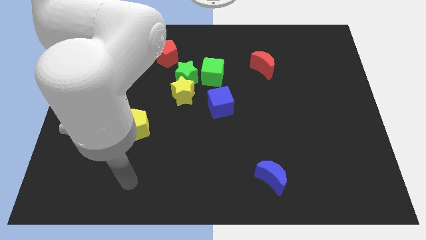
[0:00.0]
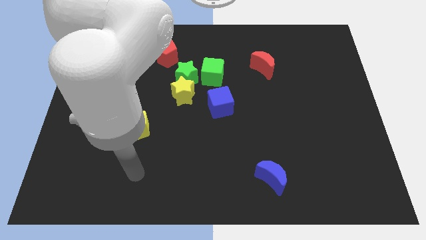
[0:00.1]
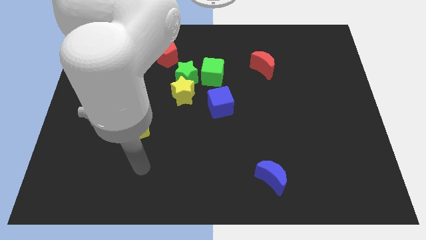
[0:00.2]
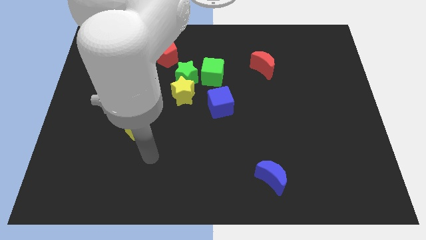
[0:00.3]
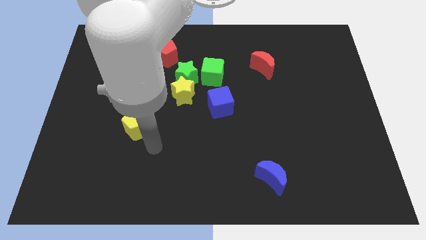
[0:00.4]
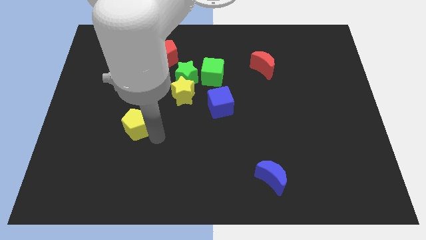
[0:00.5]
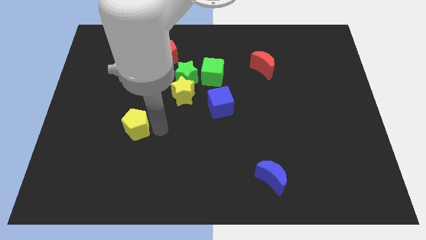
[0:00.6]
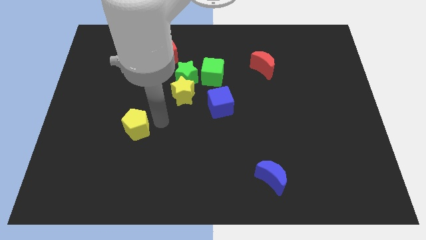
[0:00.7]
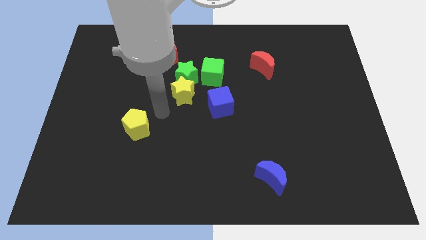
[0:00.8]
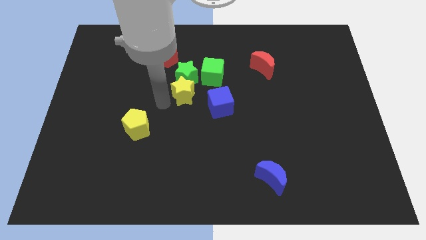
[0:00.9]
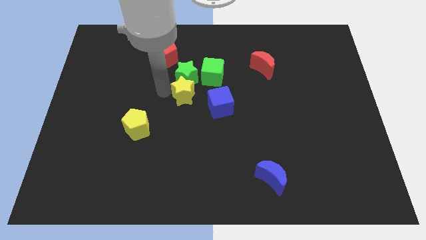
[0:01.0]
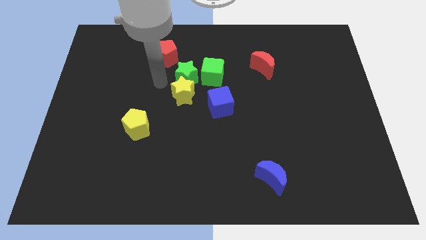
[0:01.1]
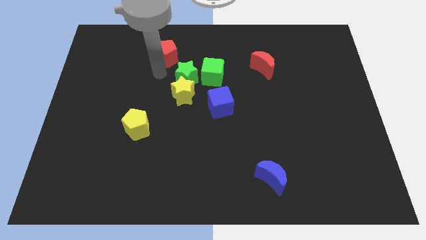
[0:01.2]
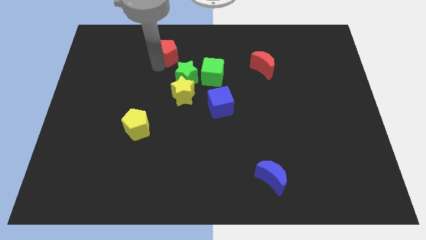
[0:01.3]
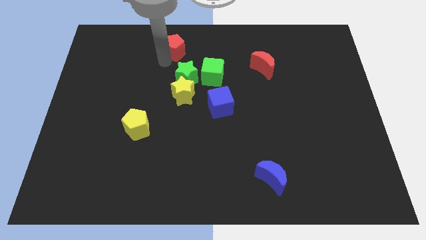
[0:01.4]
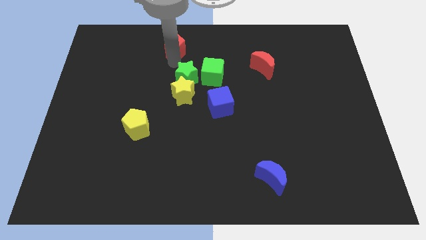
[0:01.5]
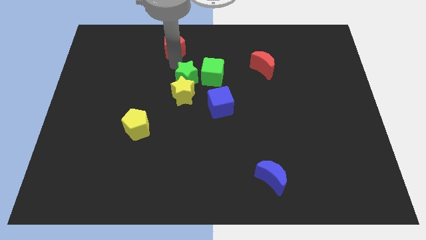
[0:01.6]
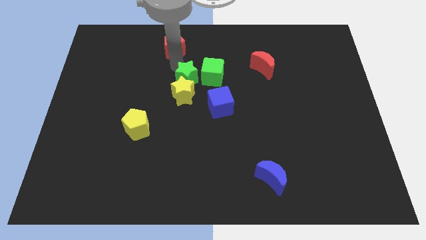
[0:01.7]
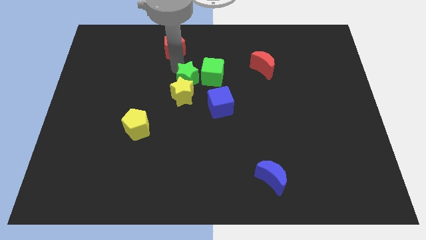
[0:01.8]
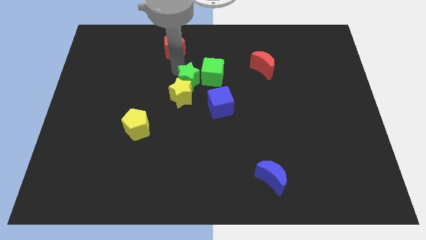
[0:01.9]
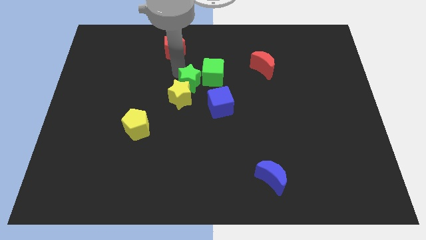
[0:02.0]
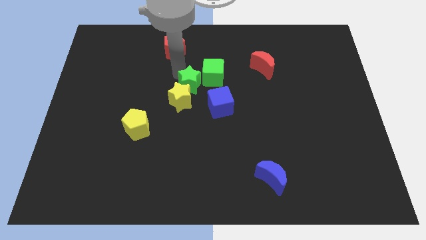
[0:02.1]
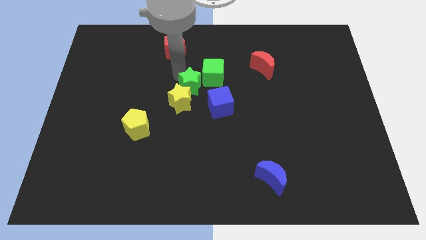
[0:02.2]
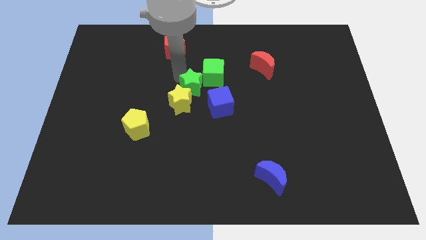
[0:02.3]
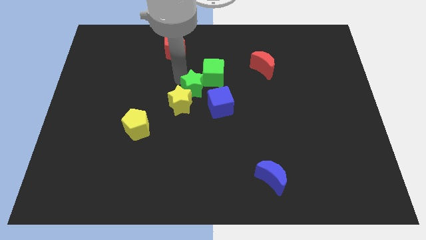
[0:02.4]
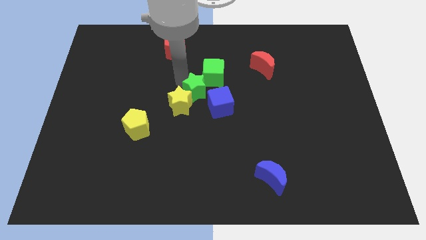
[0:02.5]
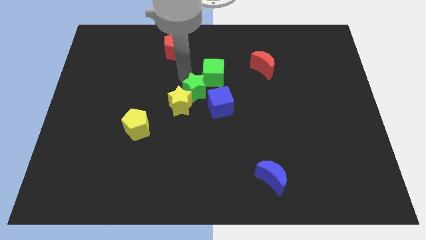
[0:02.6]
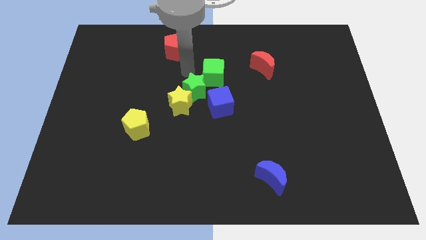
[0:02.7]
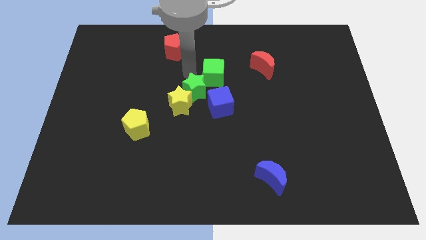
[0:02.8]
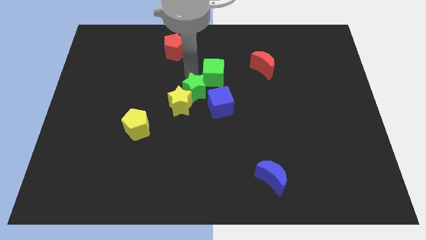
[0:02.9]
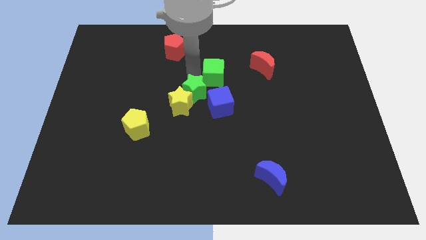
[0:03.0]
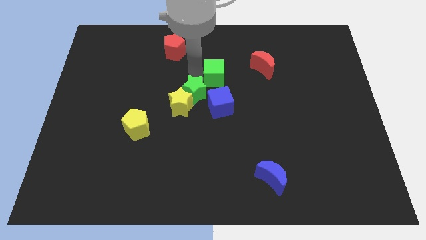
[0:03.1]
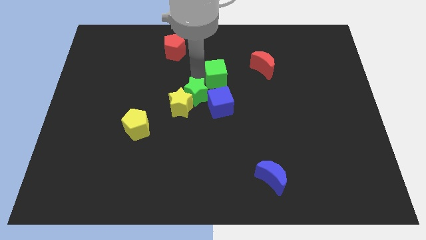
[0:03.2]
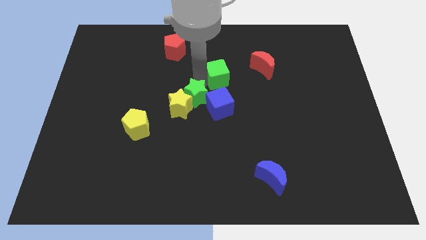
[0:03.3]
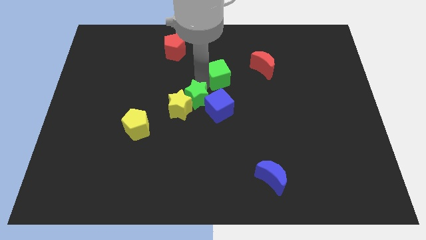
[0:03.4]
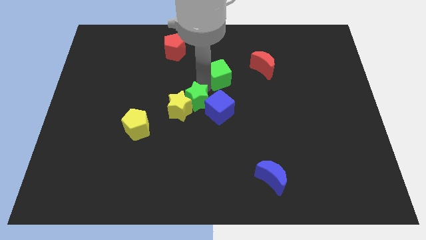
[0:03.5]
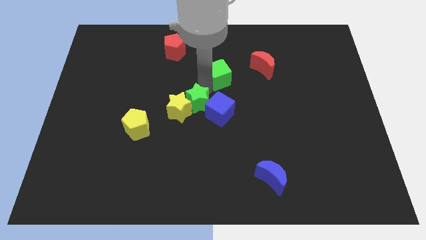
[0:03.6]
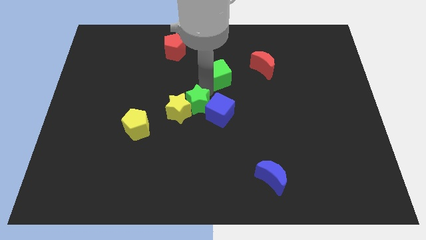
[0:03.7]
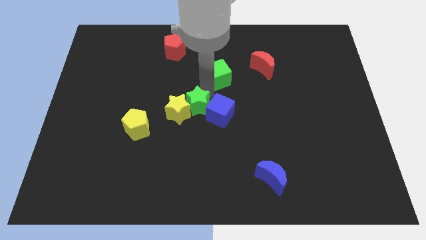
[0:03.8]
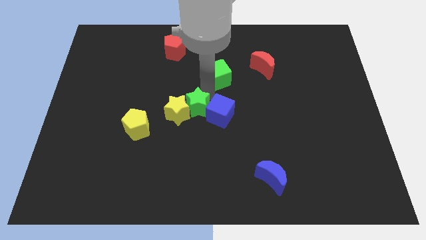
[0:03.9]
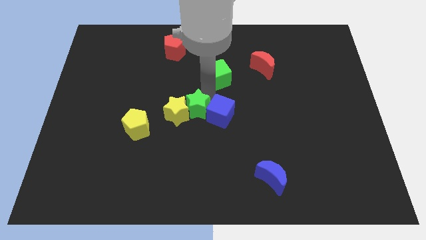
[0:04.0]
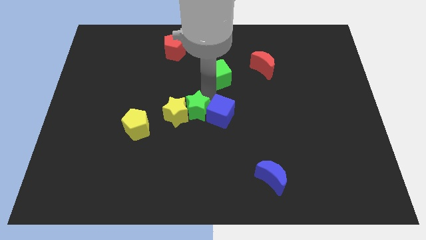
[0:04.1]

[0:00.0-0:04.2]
pull the green star apart from the yellow star, green cube, and red pentagon

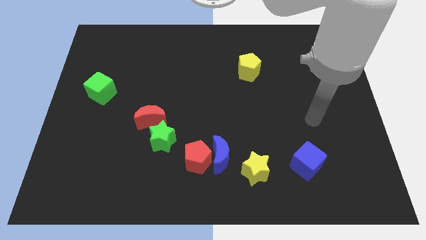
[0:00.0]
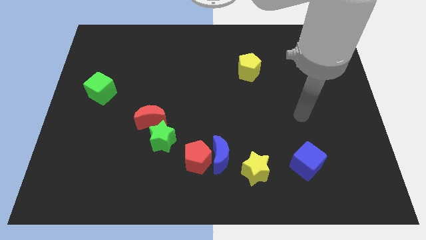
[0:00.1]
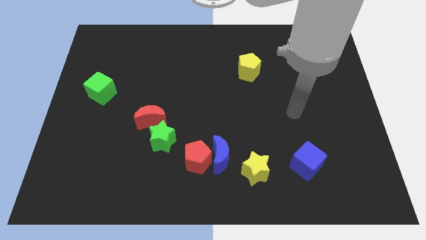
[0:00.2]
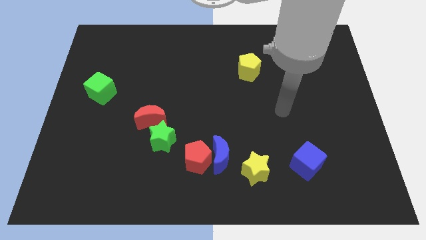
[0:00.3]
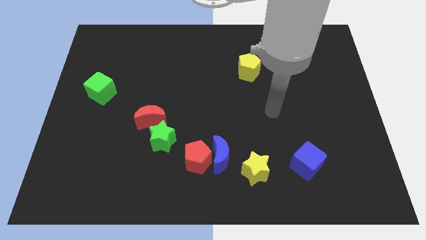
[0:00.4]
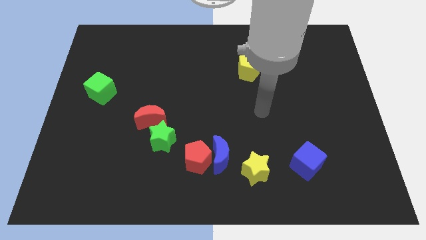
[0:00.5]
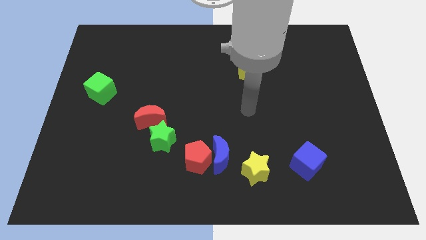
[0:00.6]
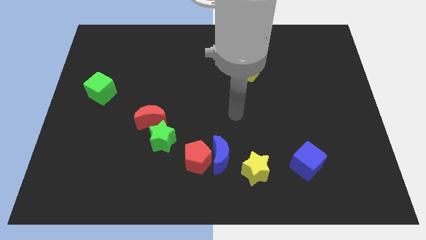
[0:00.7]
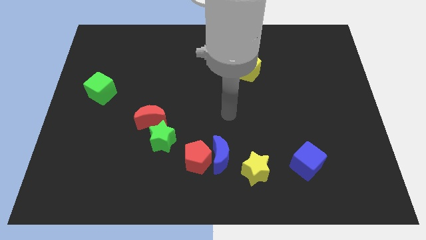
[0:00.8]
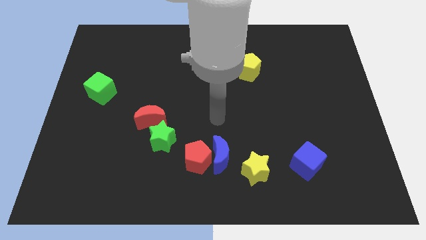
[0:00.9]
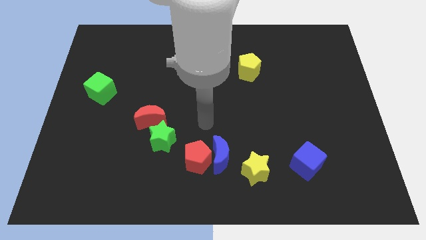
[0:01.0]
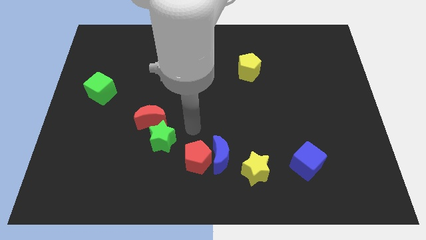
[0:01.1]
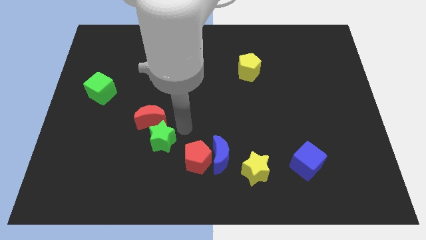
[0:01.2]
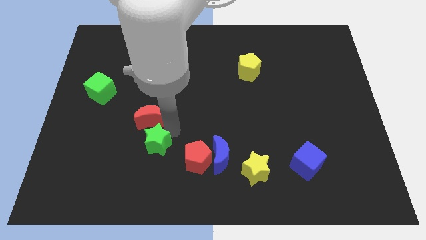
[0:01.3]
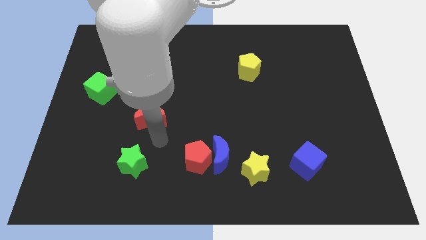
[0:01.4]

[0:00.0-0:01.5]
move the red moon away from the green star

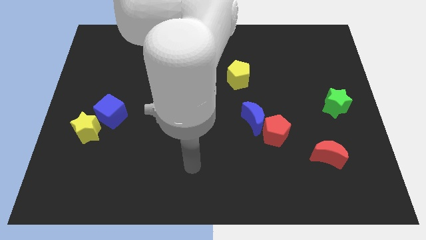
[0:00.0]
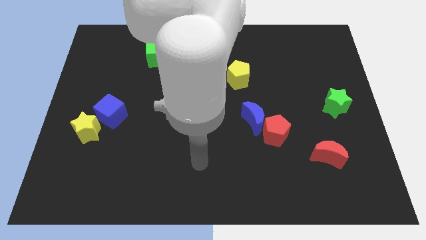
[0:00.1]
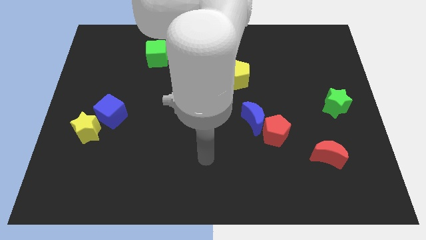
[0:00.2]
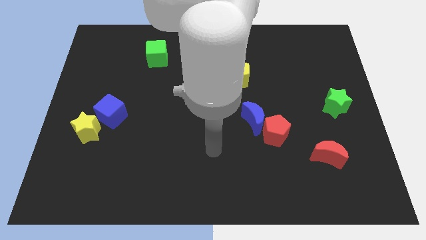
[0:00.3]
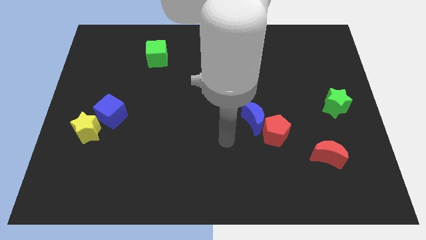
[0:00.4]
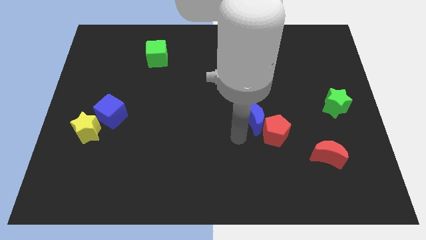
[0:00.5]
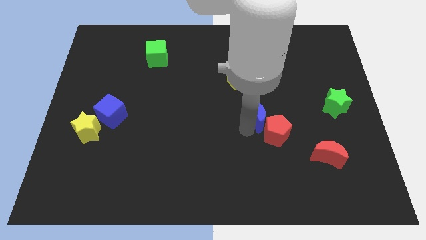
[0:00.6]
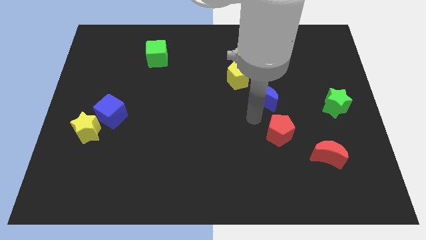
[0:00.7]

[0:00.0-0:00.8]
move the red pentagon away from the blue moon

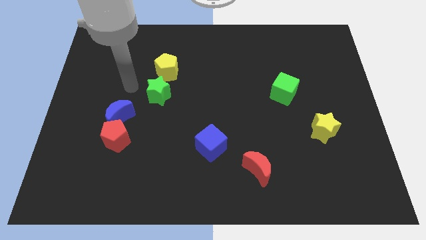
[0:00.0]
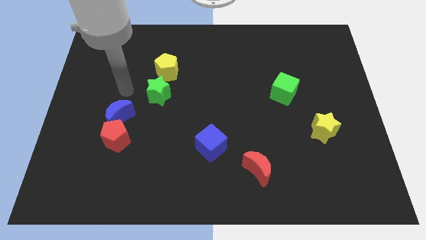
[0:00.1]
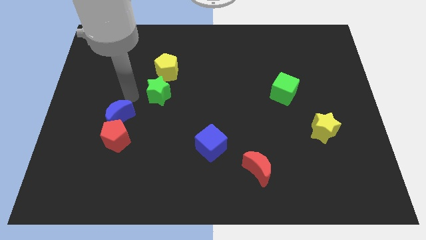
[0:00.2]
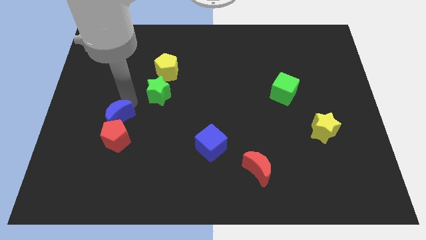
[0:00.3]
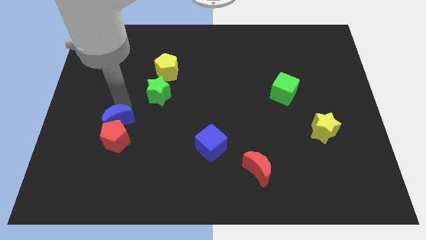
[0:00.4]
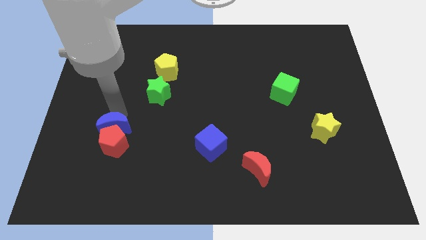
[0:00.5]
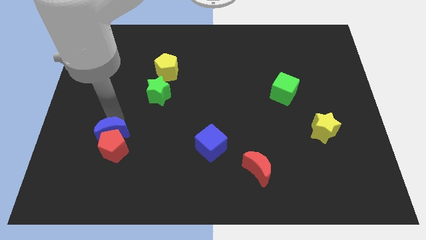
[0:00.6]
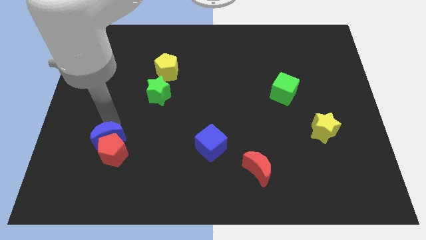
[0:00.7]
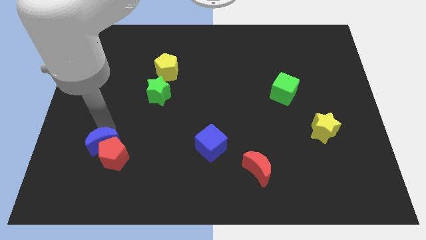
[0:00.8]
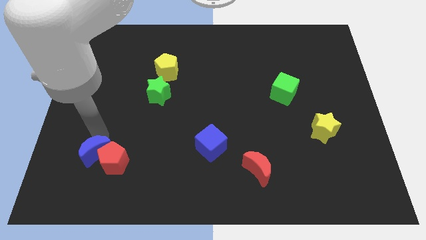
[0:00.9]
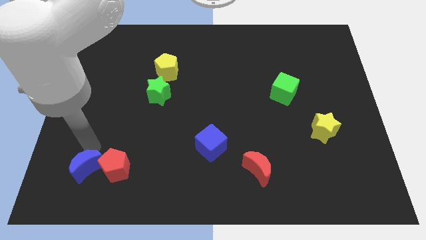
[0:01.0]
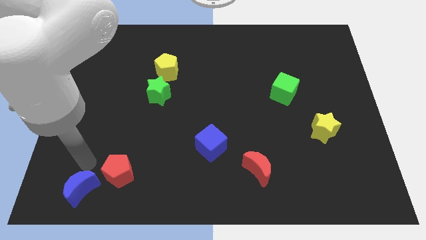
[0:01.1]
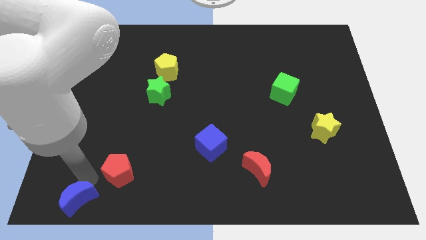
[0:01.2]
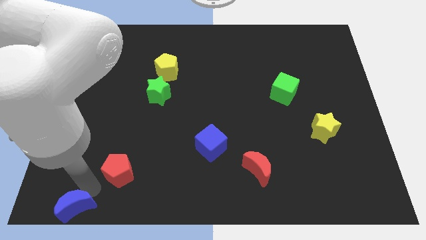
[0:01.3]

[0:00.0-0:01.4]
pull the red pentagon apart from the blue moon

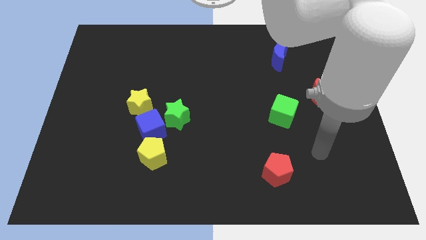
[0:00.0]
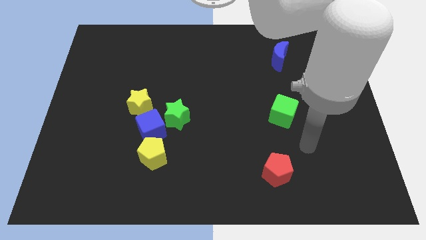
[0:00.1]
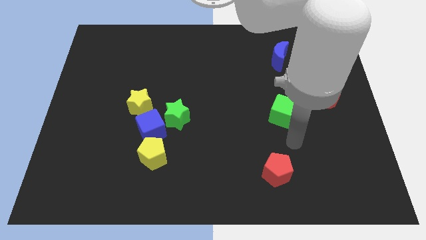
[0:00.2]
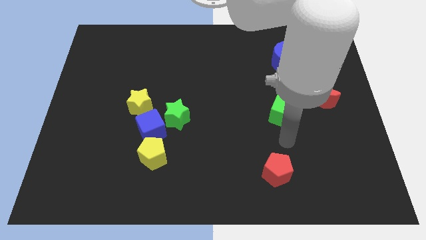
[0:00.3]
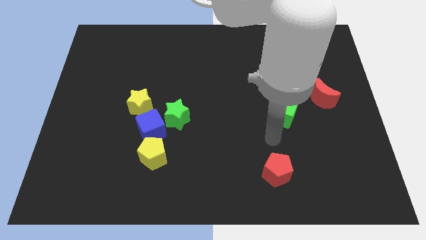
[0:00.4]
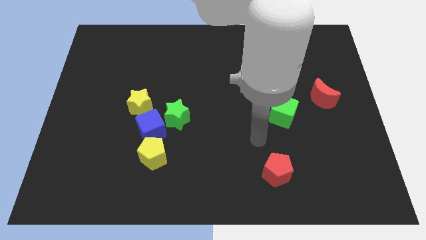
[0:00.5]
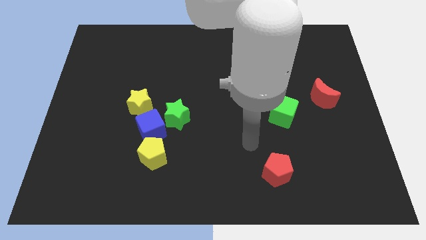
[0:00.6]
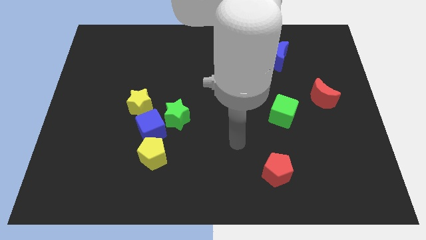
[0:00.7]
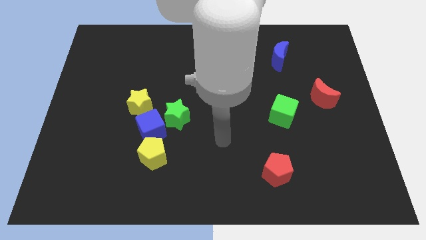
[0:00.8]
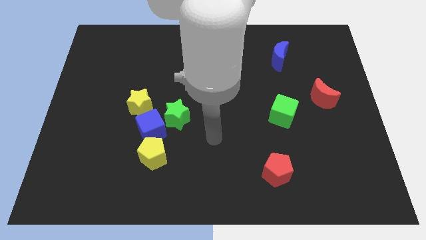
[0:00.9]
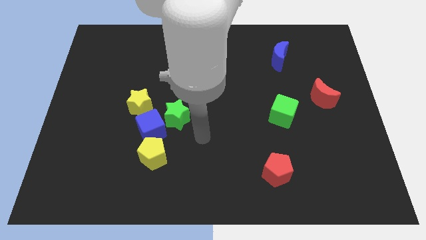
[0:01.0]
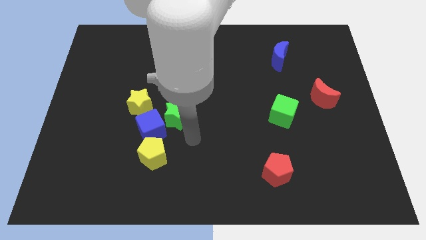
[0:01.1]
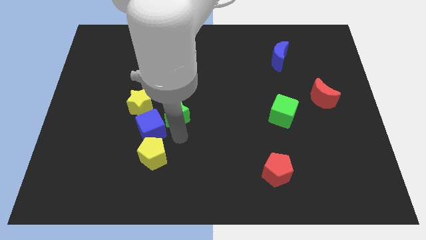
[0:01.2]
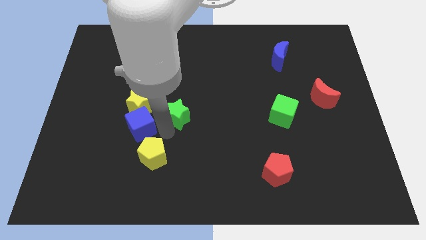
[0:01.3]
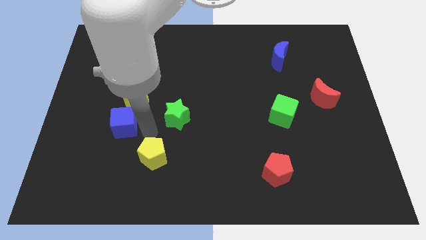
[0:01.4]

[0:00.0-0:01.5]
pull the yellow pentagon apart from the blue cube
